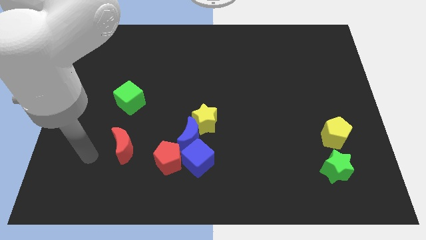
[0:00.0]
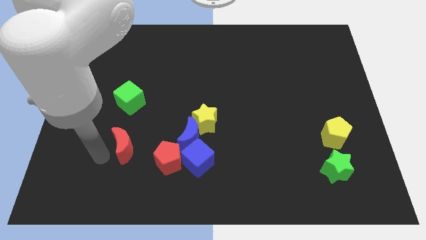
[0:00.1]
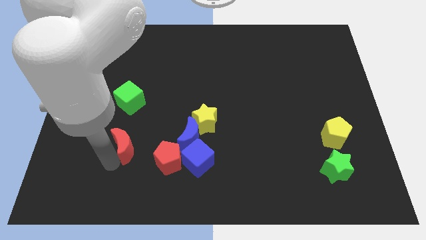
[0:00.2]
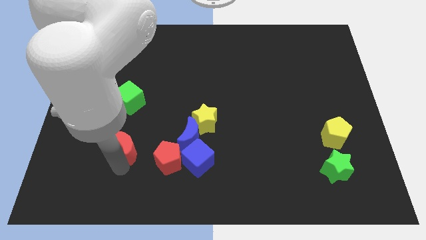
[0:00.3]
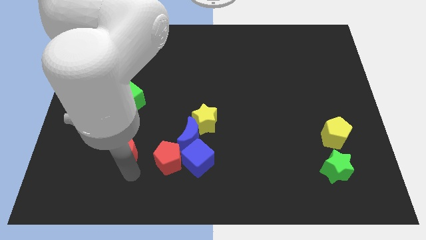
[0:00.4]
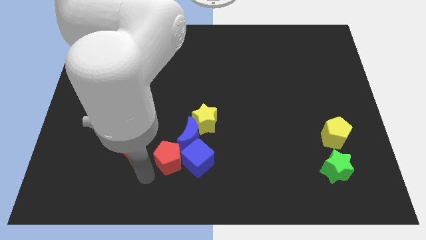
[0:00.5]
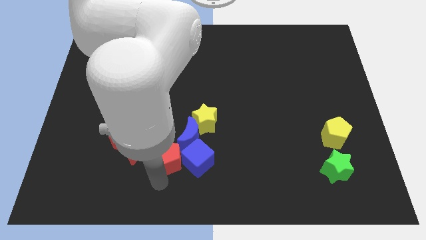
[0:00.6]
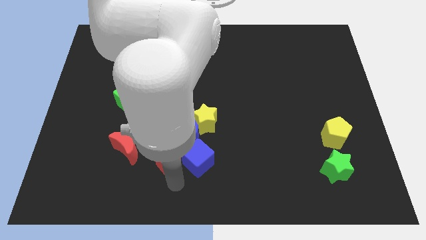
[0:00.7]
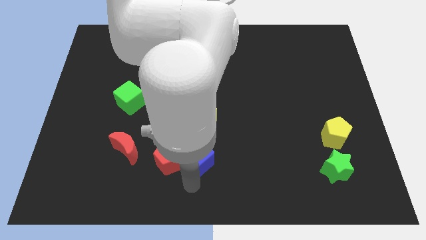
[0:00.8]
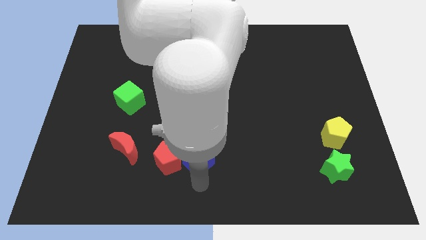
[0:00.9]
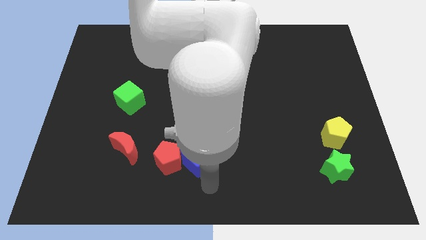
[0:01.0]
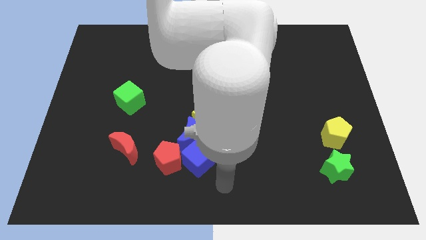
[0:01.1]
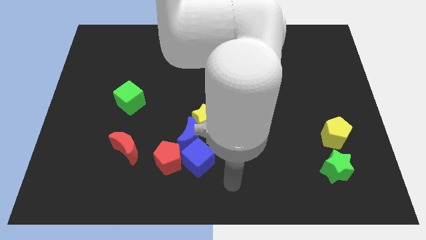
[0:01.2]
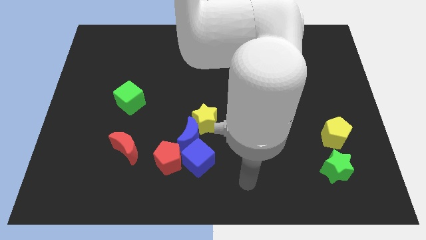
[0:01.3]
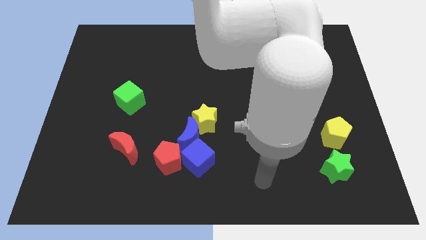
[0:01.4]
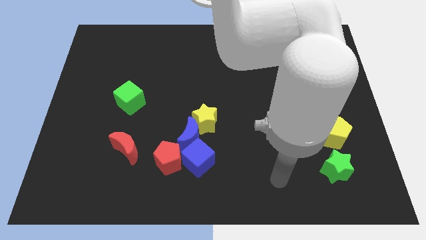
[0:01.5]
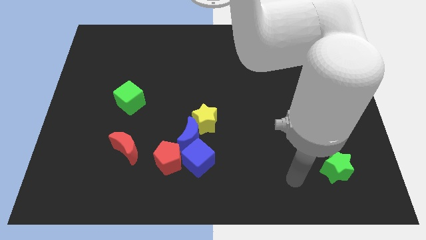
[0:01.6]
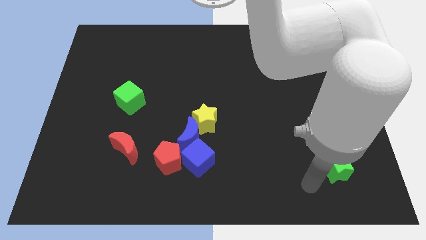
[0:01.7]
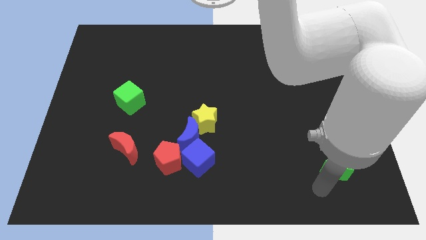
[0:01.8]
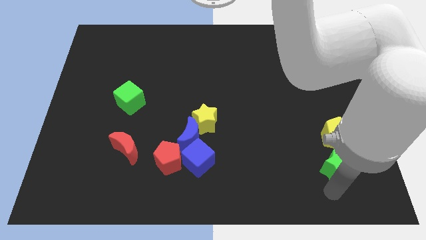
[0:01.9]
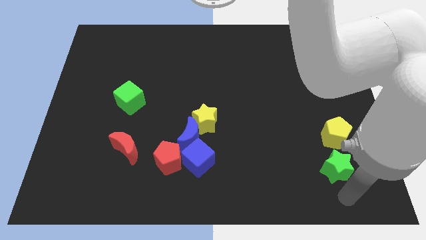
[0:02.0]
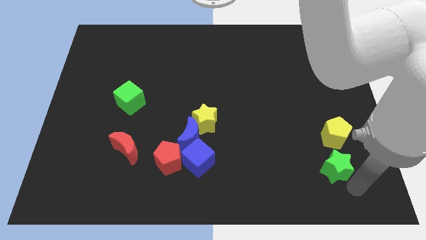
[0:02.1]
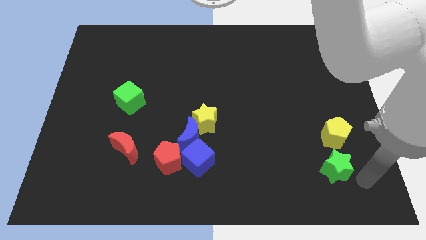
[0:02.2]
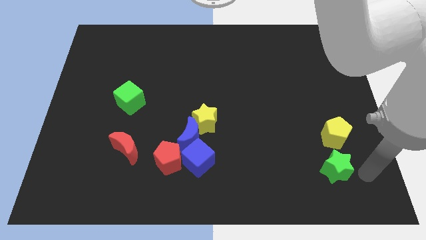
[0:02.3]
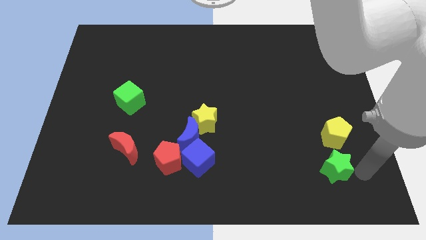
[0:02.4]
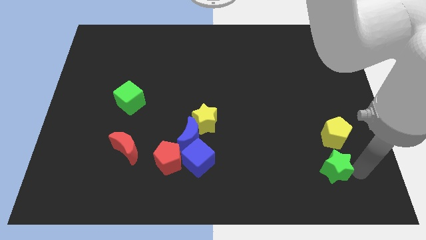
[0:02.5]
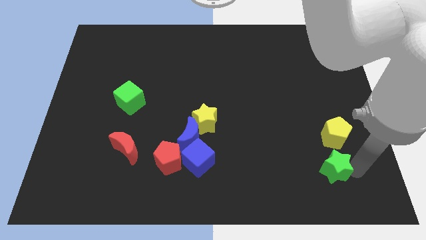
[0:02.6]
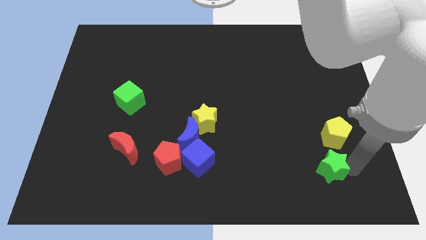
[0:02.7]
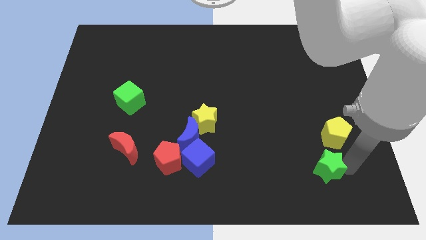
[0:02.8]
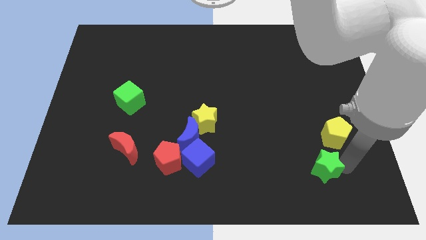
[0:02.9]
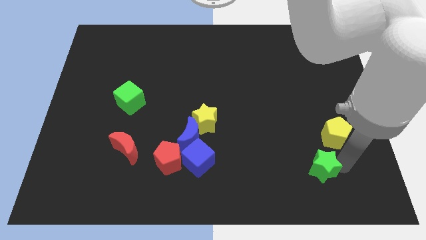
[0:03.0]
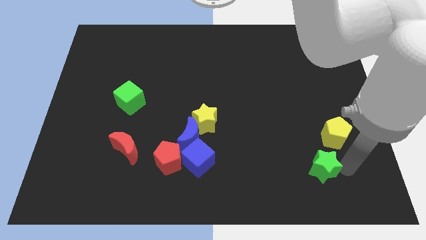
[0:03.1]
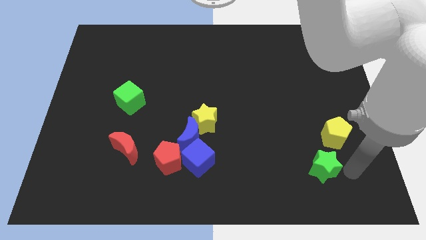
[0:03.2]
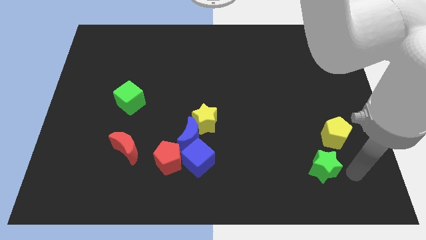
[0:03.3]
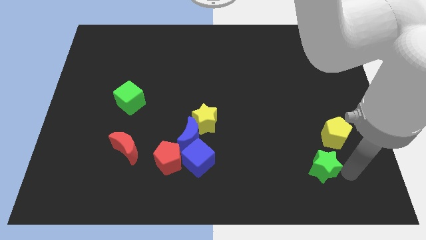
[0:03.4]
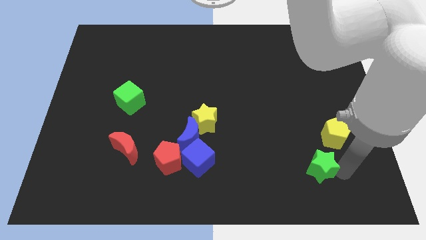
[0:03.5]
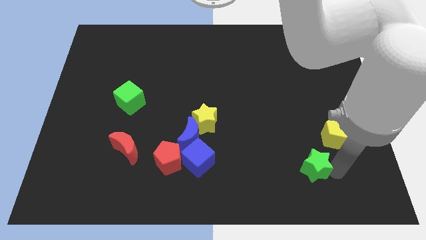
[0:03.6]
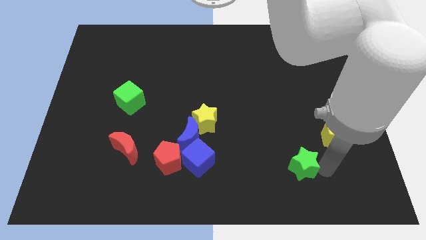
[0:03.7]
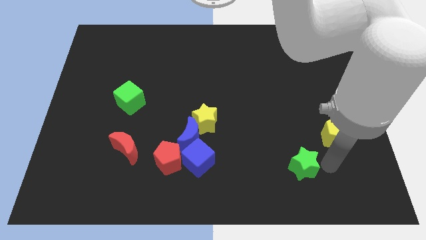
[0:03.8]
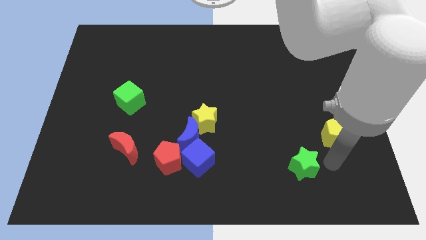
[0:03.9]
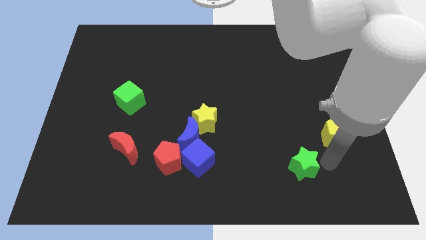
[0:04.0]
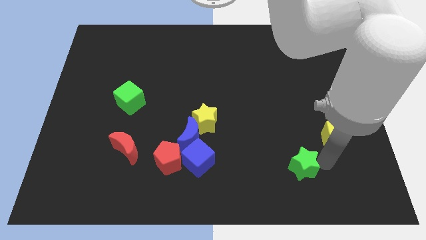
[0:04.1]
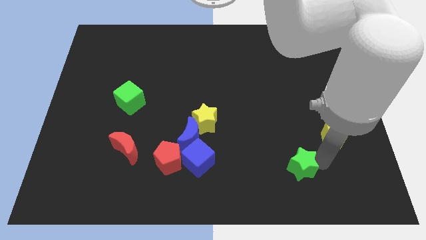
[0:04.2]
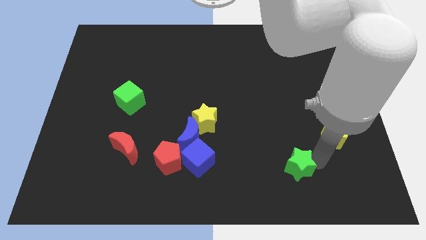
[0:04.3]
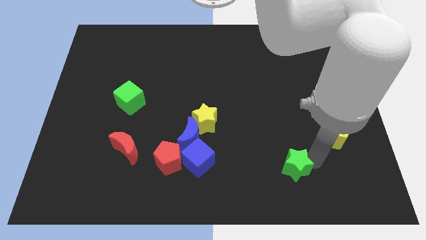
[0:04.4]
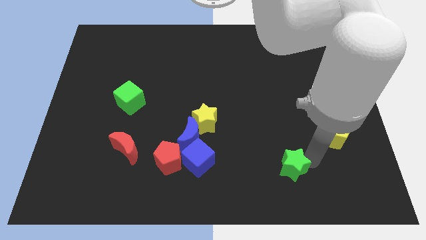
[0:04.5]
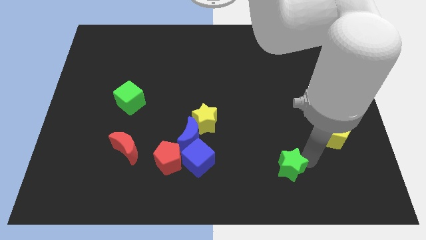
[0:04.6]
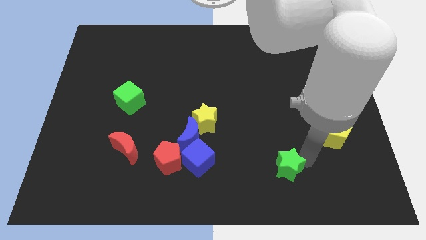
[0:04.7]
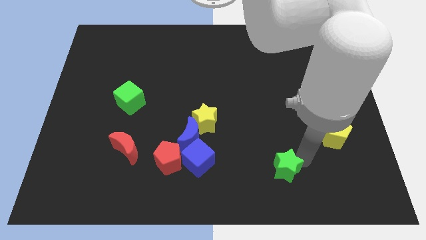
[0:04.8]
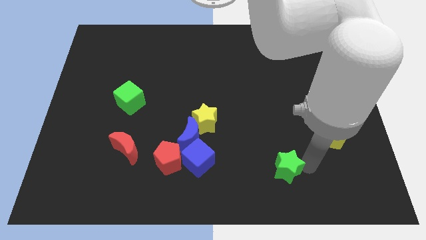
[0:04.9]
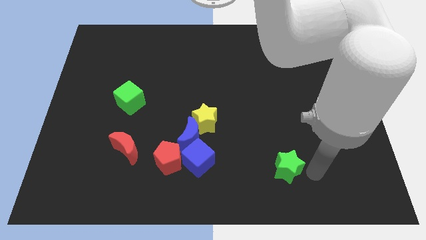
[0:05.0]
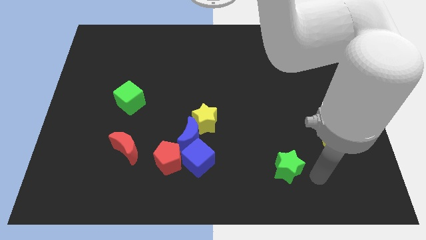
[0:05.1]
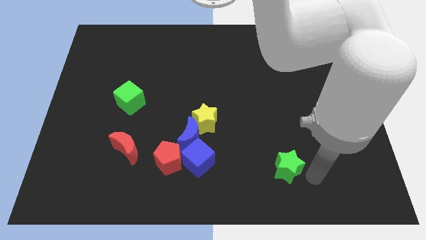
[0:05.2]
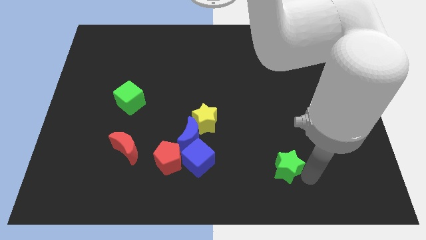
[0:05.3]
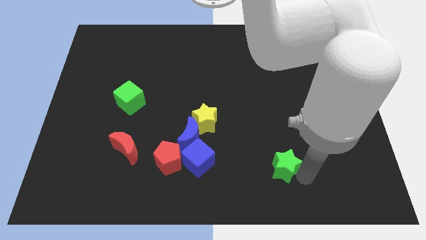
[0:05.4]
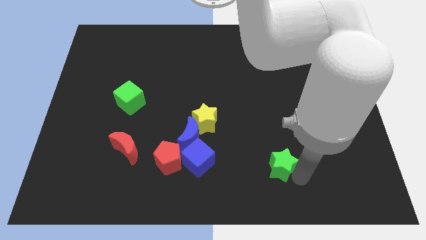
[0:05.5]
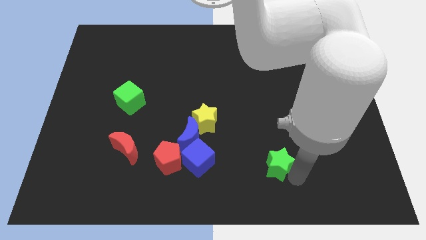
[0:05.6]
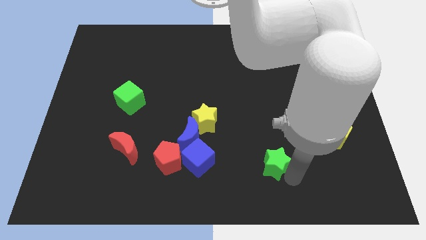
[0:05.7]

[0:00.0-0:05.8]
slide the green star to the right side of the blue cube

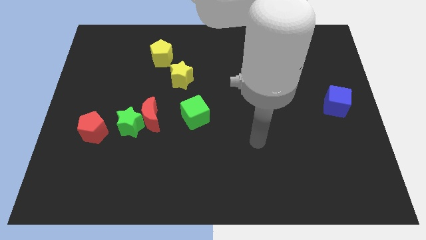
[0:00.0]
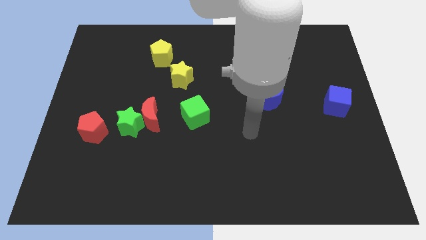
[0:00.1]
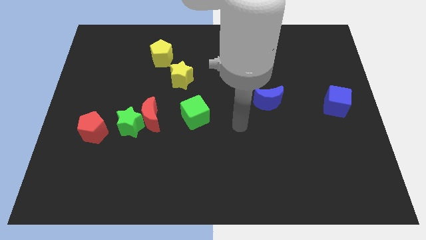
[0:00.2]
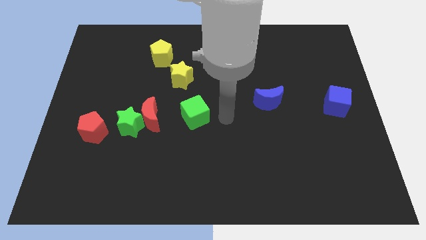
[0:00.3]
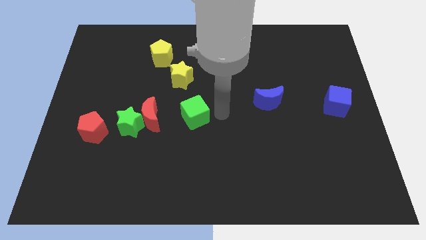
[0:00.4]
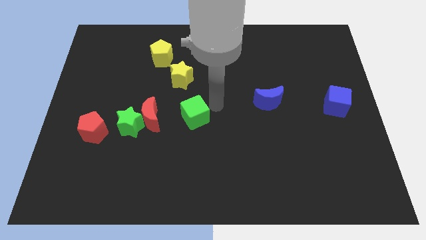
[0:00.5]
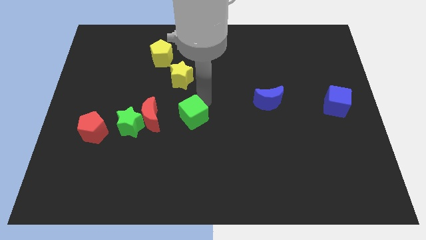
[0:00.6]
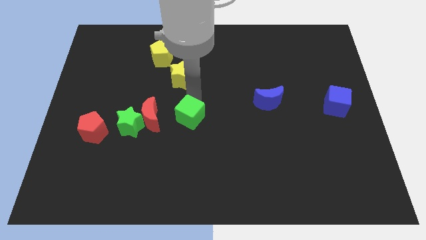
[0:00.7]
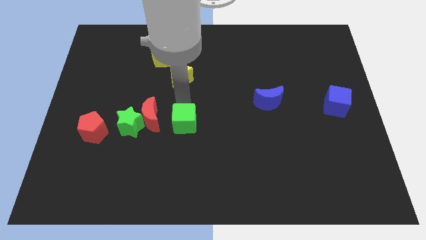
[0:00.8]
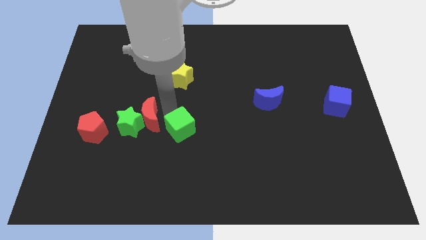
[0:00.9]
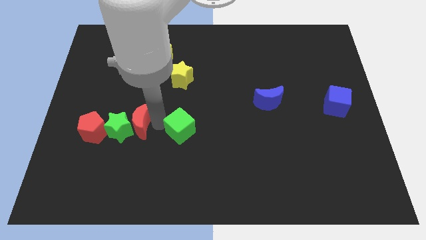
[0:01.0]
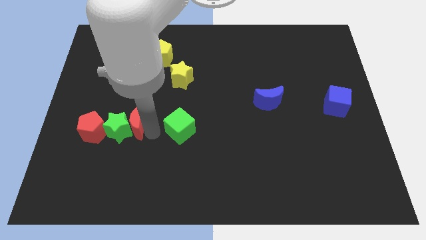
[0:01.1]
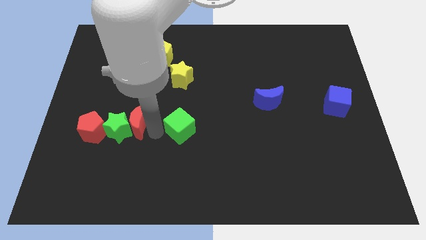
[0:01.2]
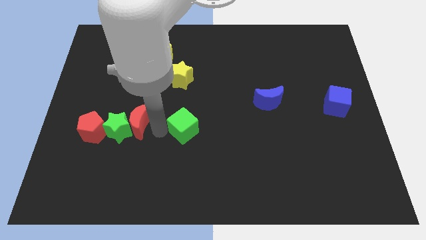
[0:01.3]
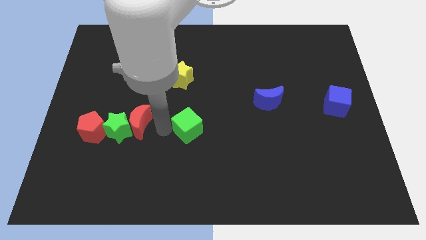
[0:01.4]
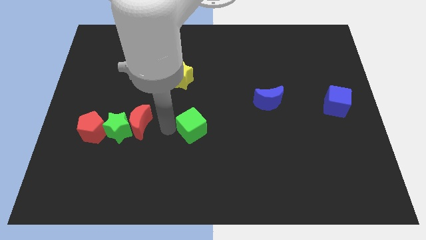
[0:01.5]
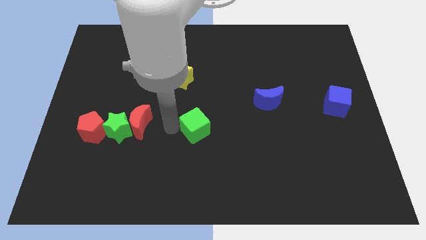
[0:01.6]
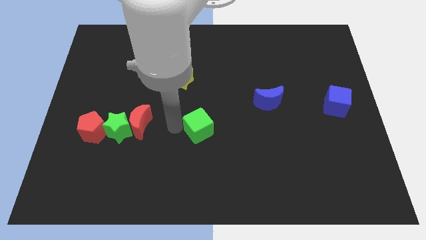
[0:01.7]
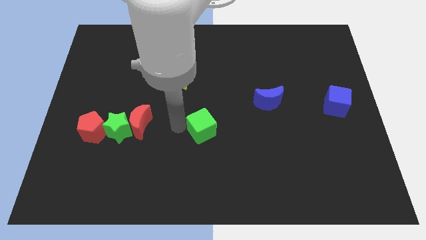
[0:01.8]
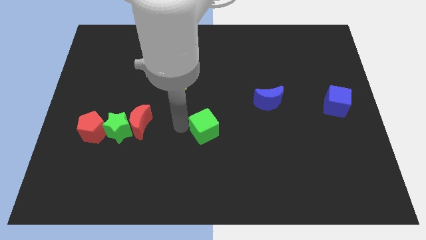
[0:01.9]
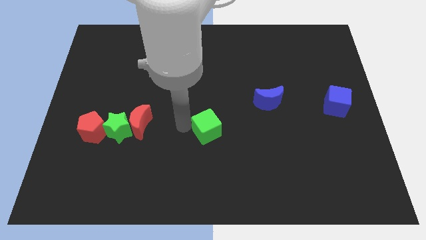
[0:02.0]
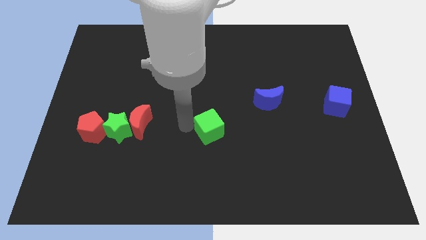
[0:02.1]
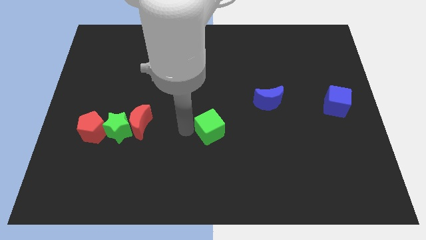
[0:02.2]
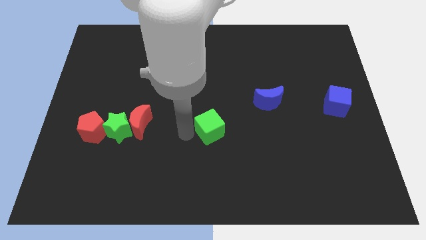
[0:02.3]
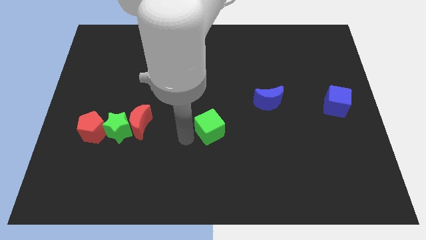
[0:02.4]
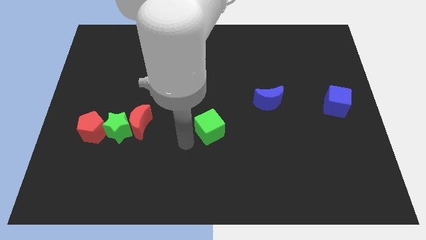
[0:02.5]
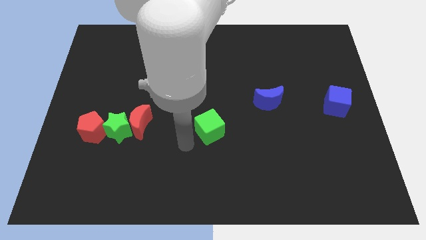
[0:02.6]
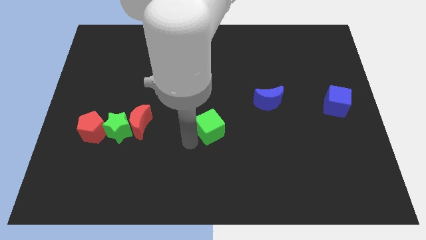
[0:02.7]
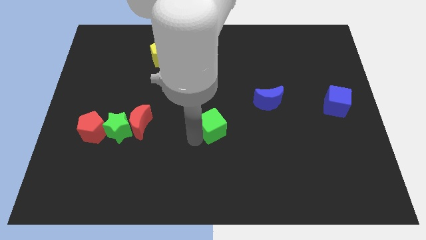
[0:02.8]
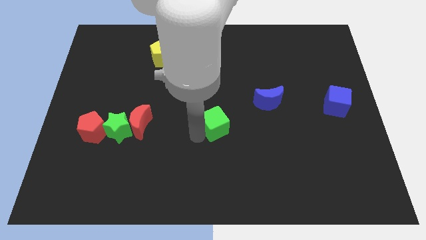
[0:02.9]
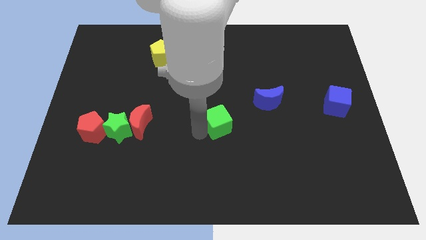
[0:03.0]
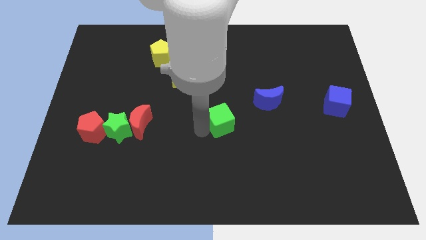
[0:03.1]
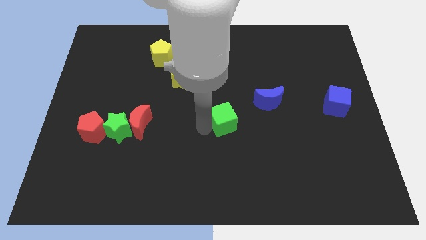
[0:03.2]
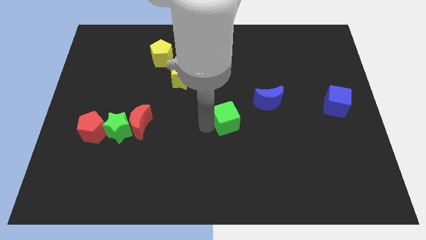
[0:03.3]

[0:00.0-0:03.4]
slide the green cube to the bottom left side of the blue moon
